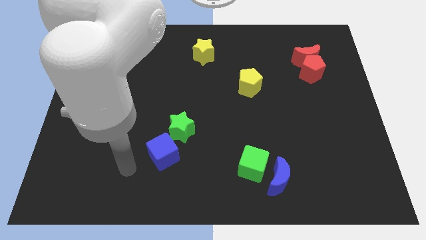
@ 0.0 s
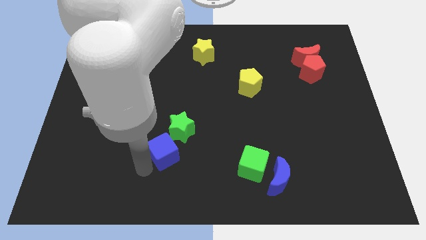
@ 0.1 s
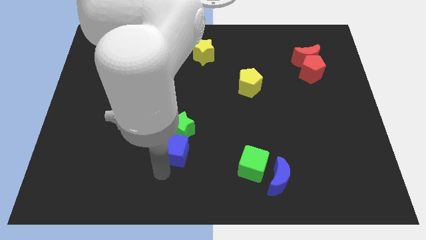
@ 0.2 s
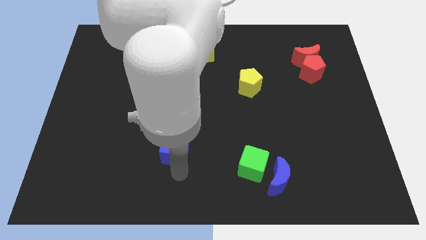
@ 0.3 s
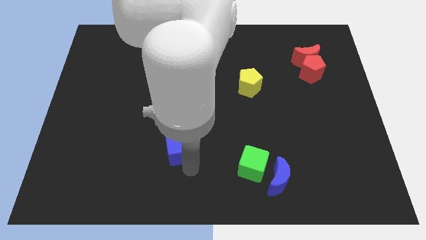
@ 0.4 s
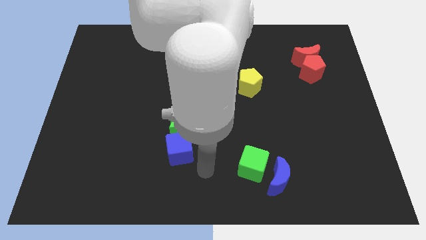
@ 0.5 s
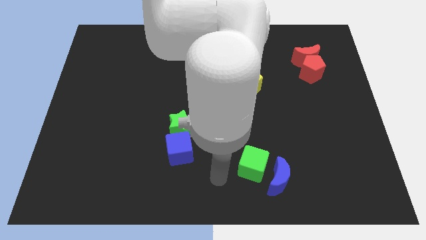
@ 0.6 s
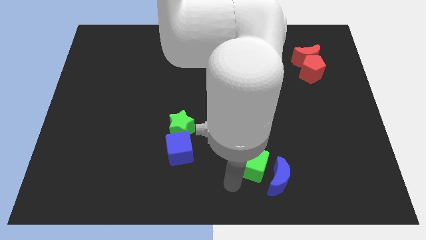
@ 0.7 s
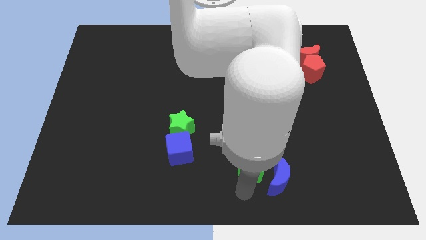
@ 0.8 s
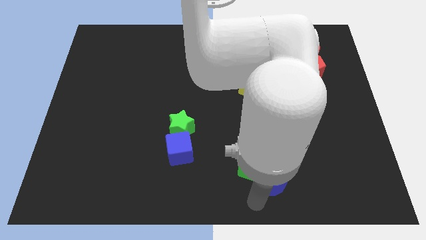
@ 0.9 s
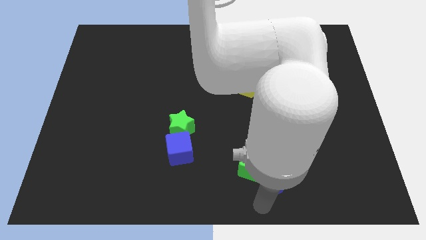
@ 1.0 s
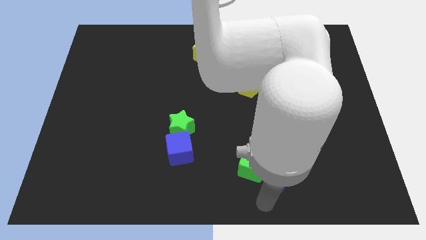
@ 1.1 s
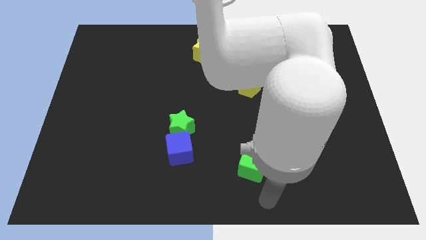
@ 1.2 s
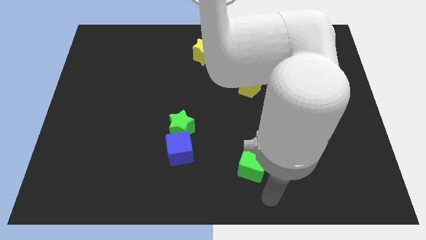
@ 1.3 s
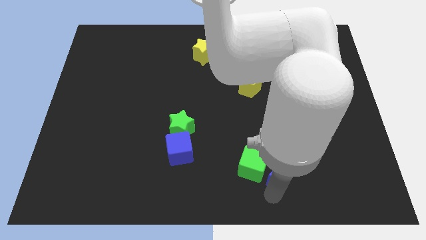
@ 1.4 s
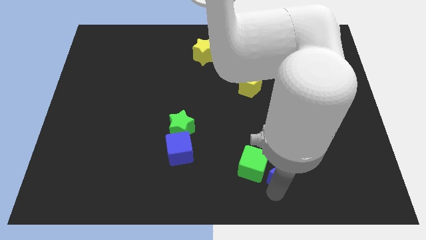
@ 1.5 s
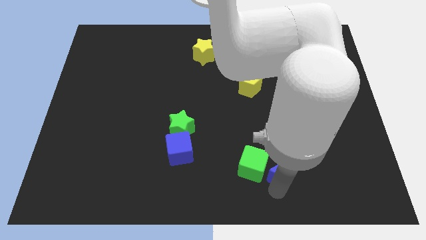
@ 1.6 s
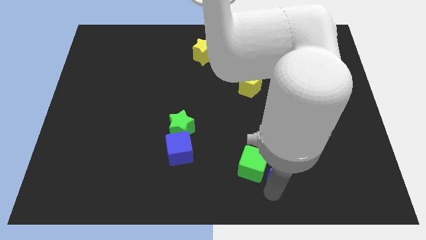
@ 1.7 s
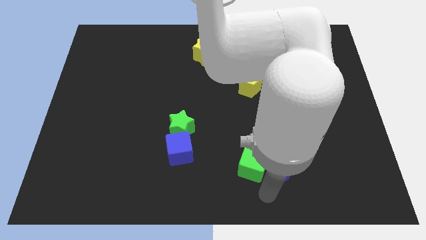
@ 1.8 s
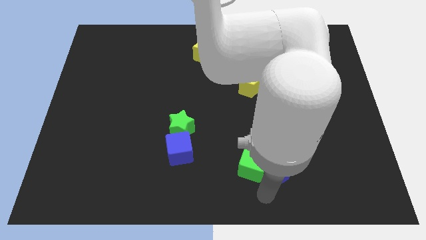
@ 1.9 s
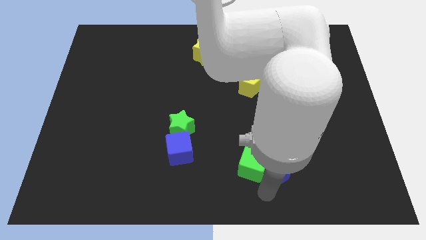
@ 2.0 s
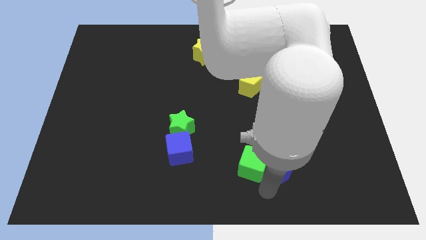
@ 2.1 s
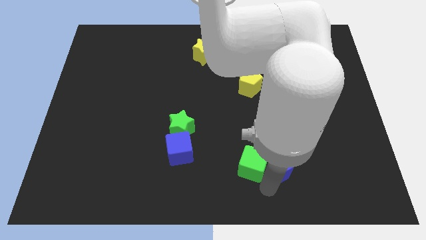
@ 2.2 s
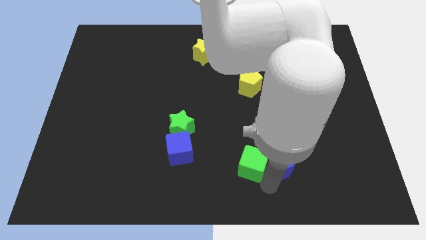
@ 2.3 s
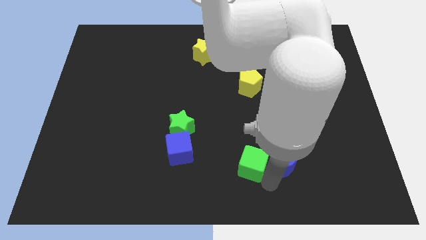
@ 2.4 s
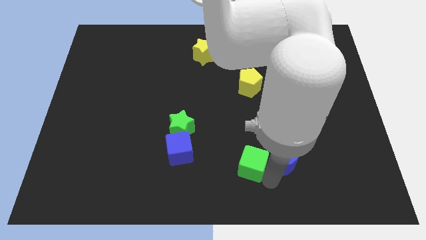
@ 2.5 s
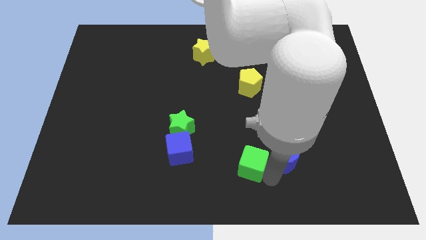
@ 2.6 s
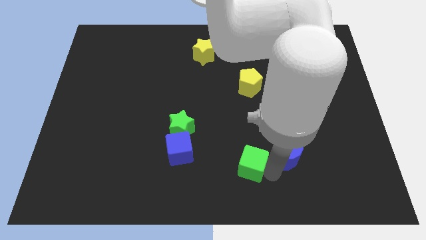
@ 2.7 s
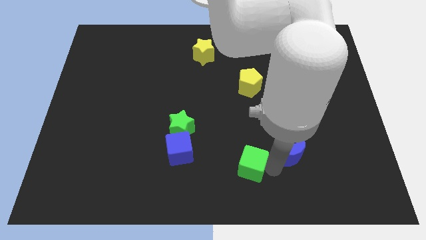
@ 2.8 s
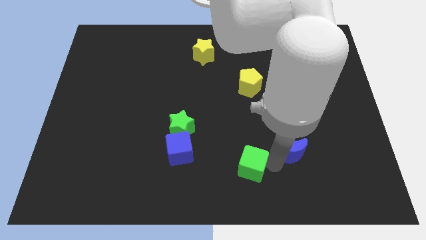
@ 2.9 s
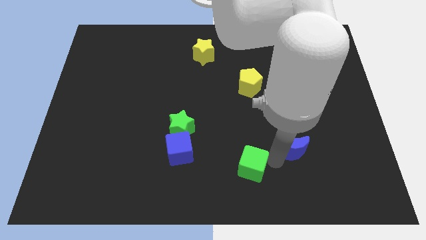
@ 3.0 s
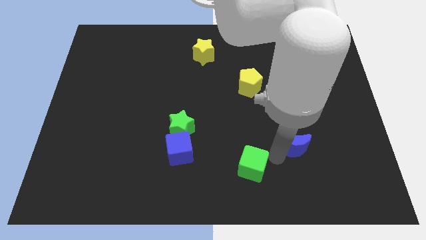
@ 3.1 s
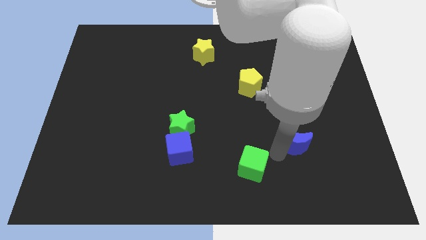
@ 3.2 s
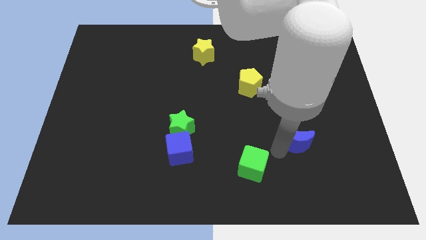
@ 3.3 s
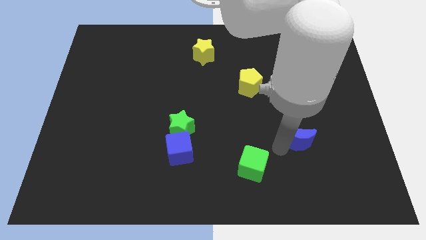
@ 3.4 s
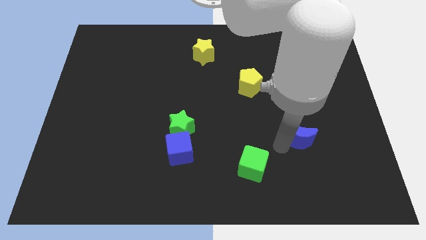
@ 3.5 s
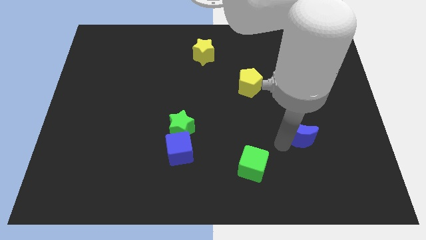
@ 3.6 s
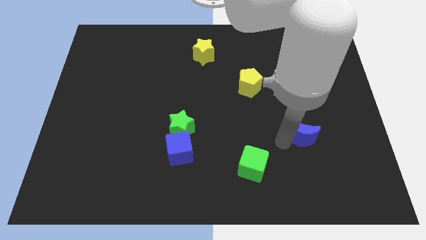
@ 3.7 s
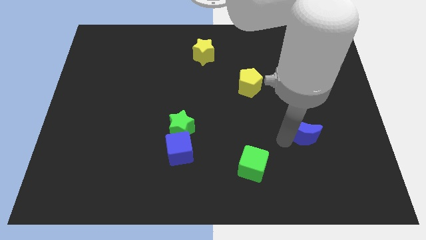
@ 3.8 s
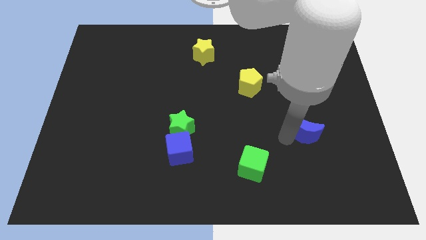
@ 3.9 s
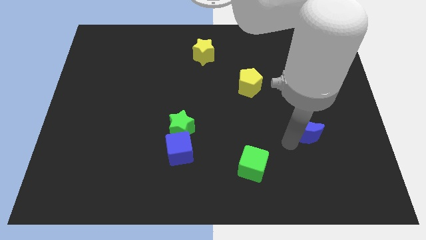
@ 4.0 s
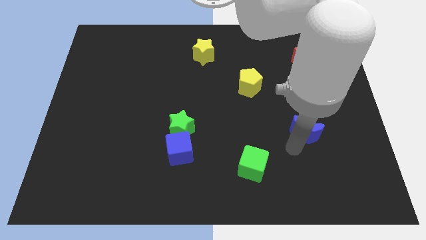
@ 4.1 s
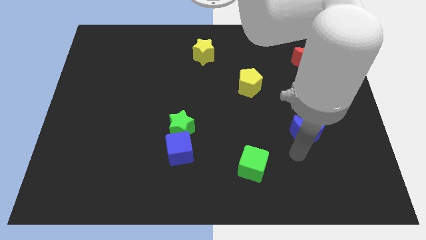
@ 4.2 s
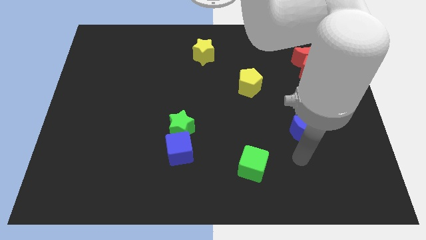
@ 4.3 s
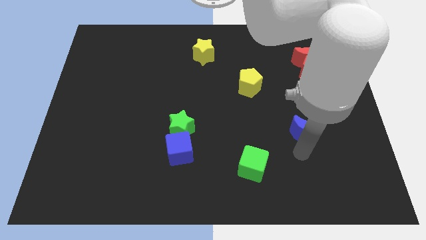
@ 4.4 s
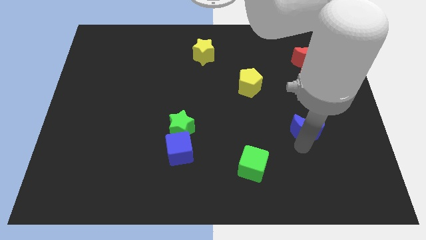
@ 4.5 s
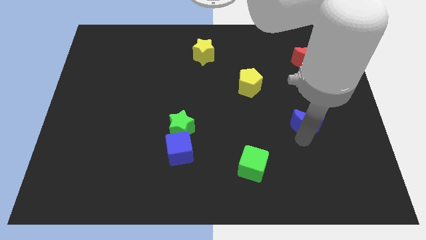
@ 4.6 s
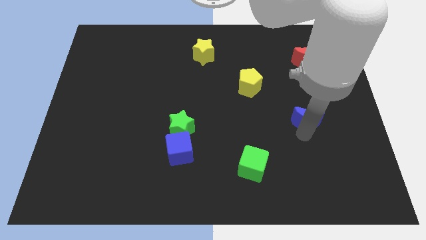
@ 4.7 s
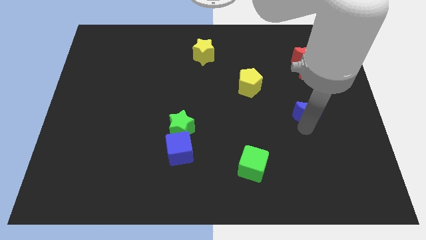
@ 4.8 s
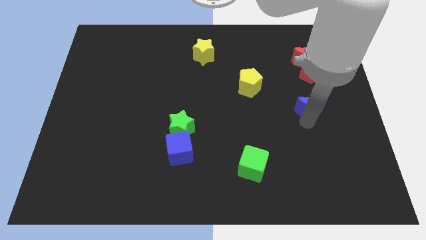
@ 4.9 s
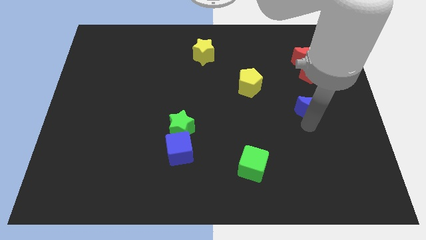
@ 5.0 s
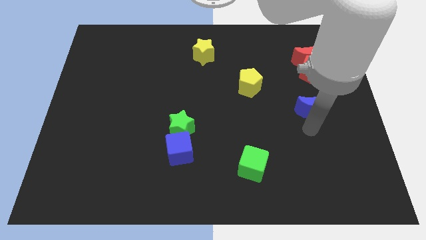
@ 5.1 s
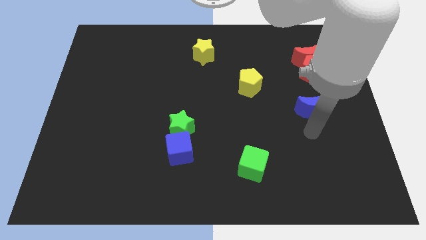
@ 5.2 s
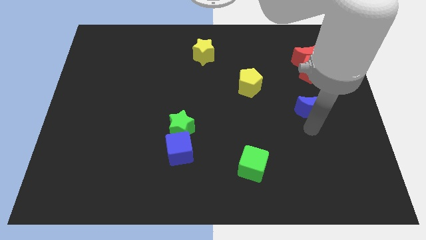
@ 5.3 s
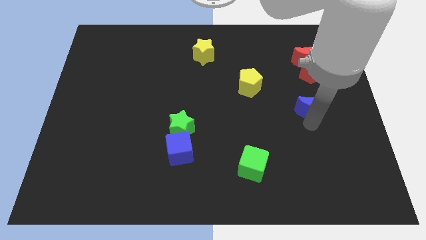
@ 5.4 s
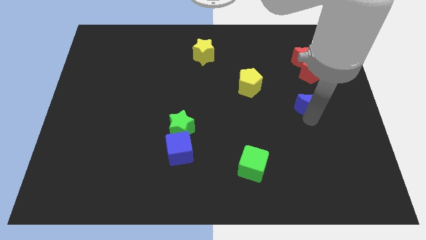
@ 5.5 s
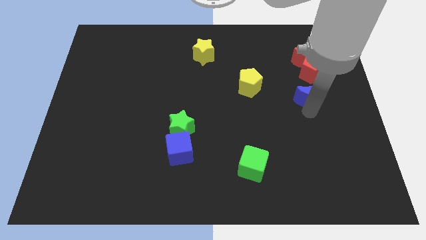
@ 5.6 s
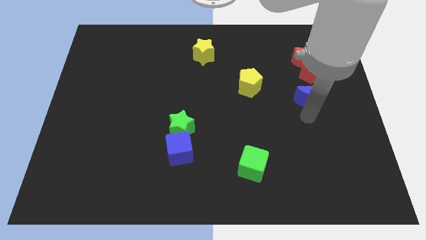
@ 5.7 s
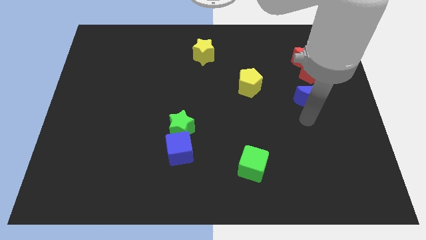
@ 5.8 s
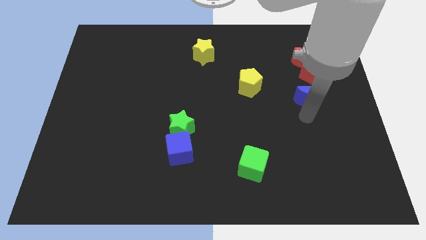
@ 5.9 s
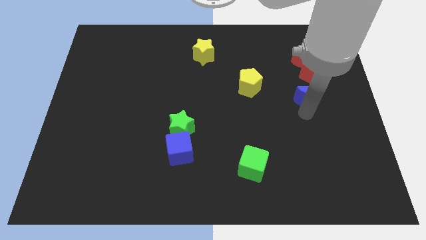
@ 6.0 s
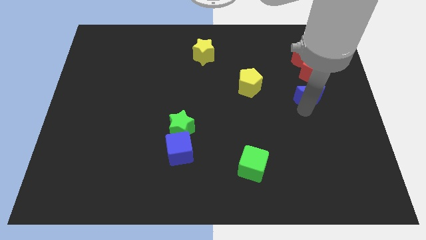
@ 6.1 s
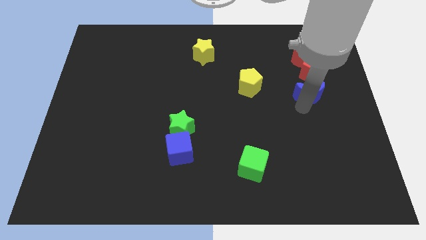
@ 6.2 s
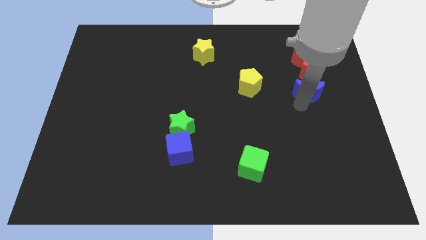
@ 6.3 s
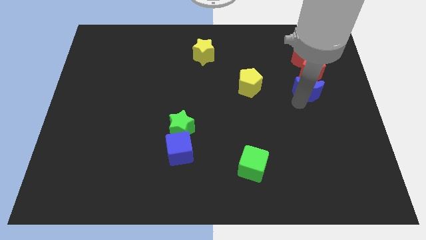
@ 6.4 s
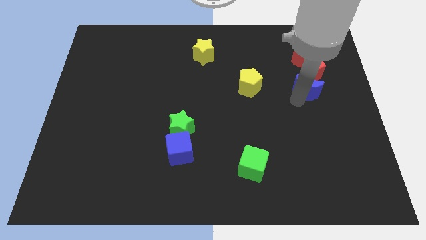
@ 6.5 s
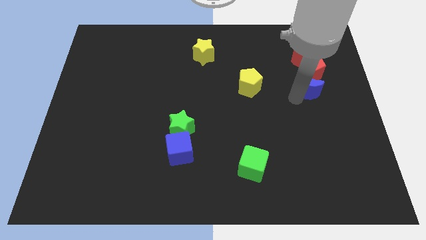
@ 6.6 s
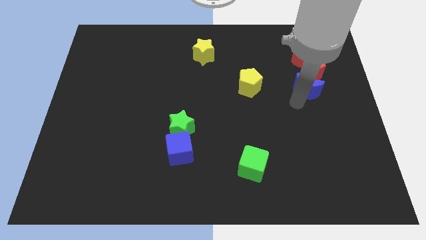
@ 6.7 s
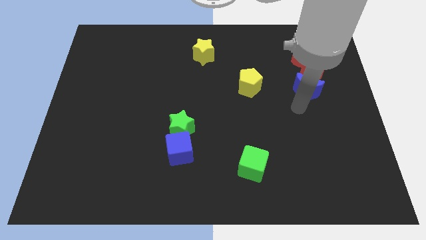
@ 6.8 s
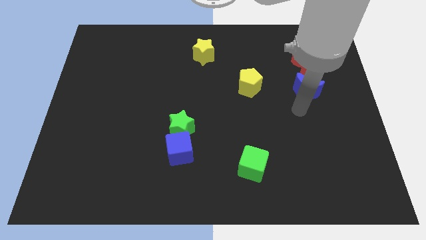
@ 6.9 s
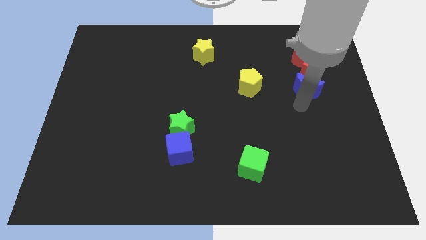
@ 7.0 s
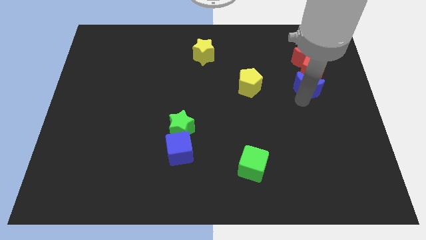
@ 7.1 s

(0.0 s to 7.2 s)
put the blue moon to the red pentagon

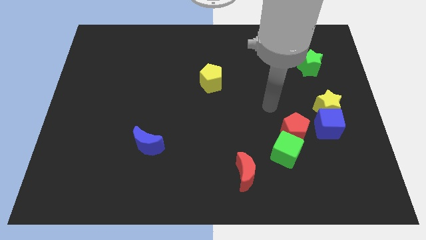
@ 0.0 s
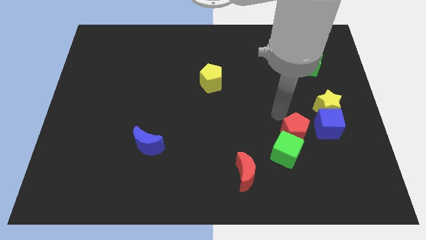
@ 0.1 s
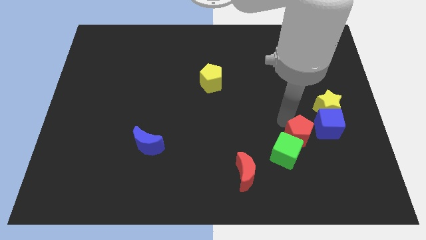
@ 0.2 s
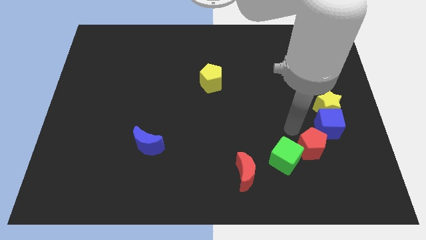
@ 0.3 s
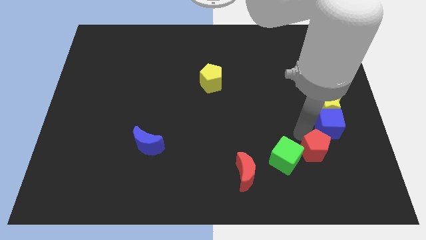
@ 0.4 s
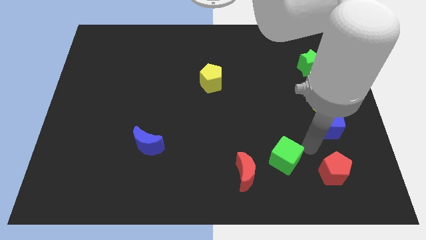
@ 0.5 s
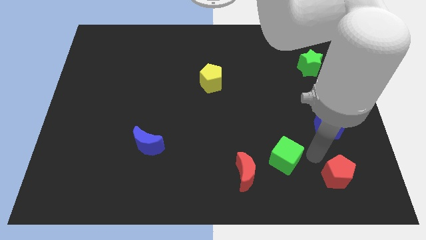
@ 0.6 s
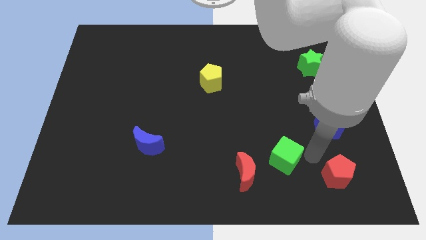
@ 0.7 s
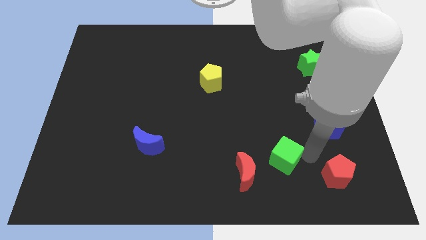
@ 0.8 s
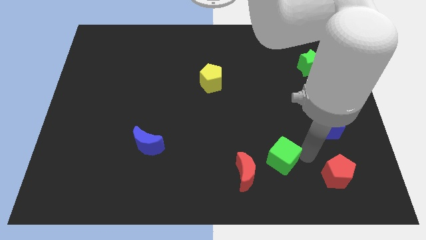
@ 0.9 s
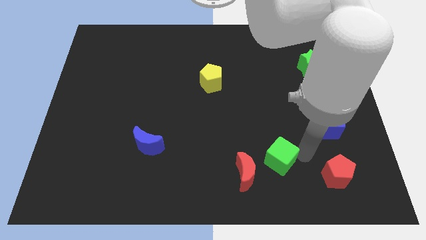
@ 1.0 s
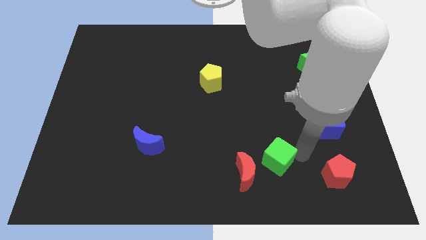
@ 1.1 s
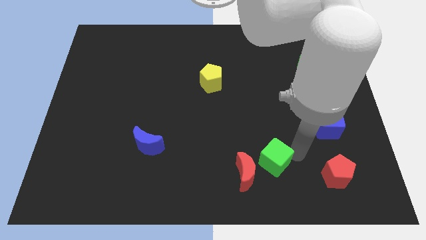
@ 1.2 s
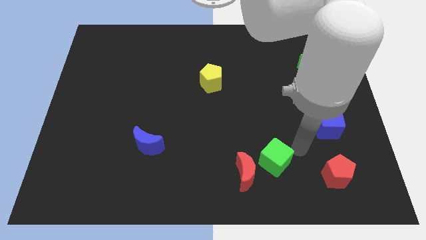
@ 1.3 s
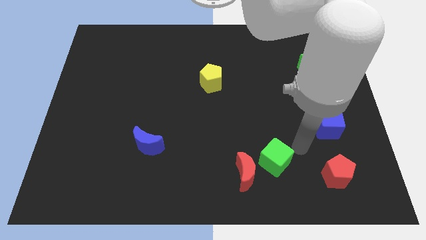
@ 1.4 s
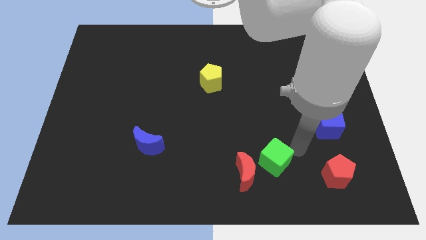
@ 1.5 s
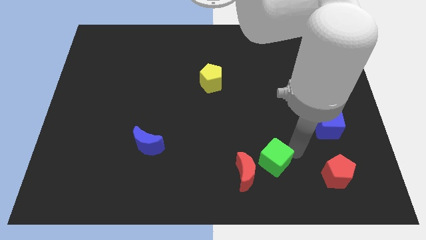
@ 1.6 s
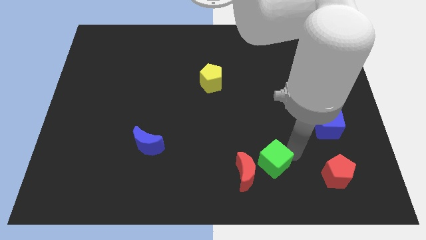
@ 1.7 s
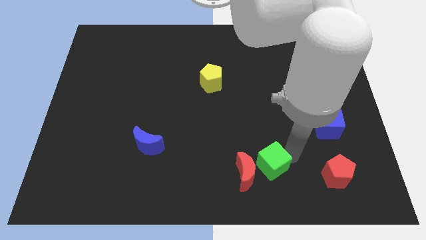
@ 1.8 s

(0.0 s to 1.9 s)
move the green cube close to the red moon
